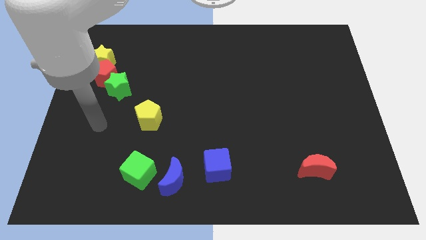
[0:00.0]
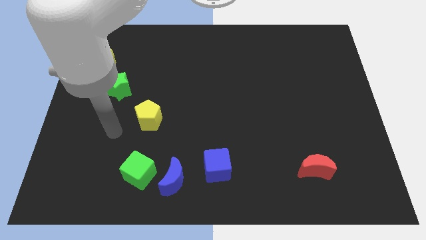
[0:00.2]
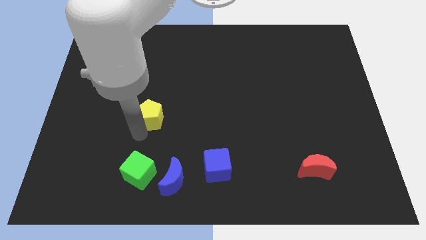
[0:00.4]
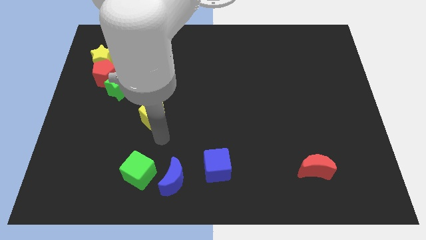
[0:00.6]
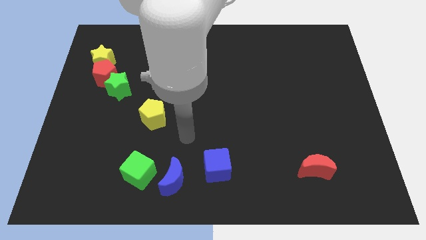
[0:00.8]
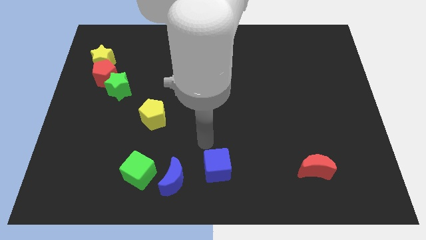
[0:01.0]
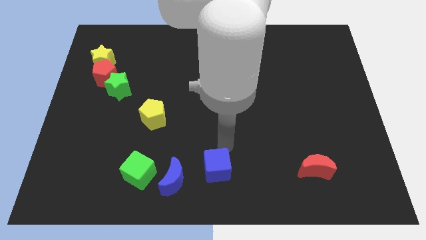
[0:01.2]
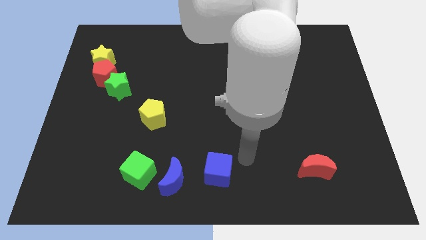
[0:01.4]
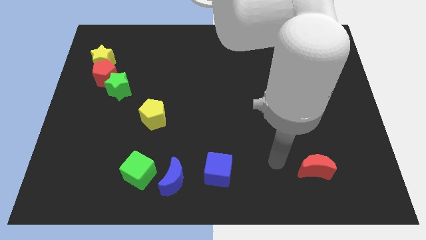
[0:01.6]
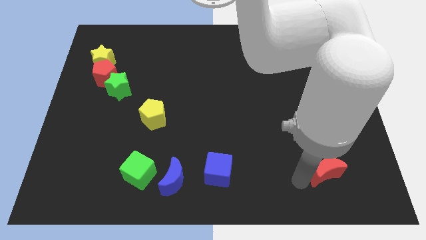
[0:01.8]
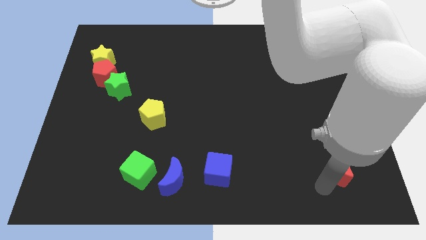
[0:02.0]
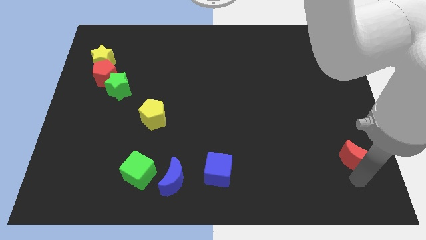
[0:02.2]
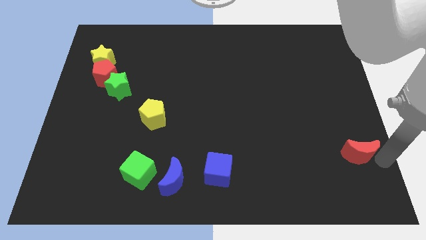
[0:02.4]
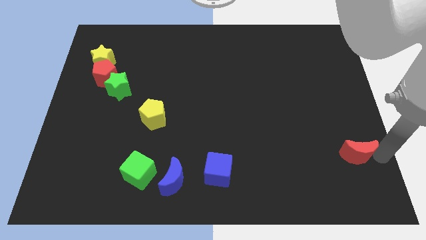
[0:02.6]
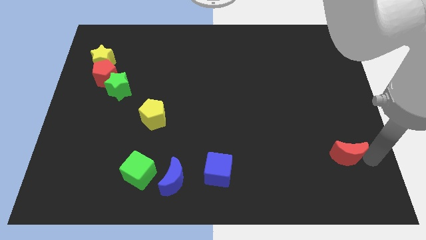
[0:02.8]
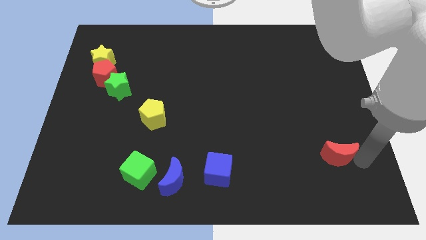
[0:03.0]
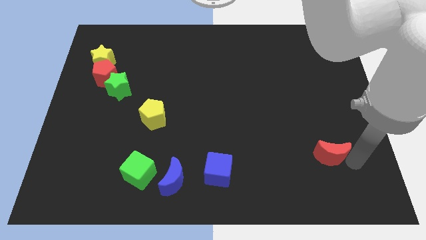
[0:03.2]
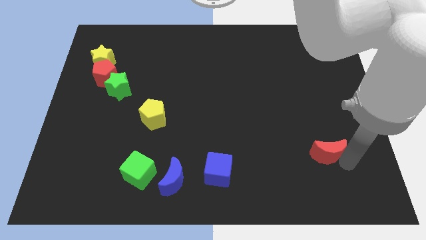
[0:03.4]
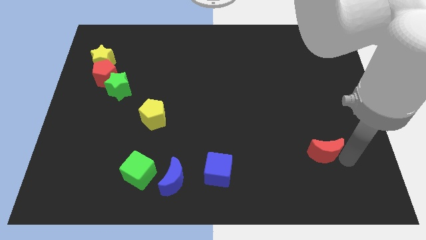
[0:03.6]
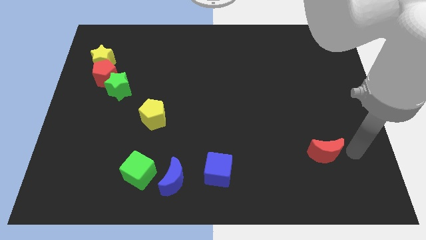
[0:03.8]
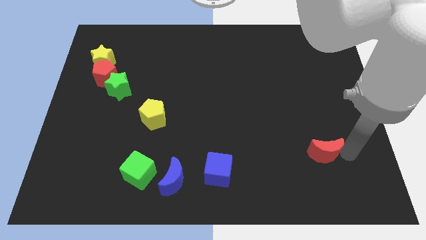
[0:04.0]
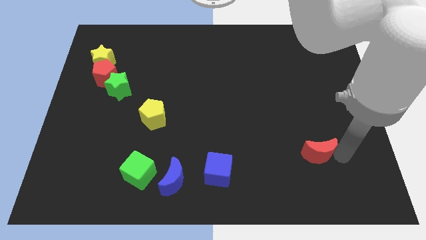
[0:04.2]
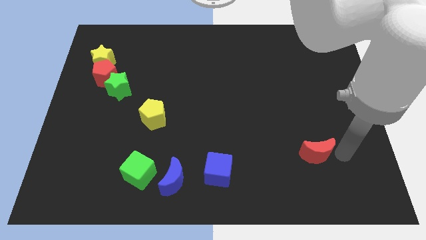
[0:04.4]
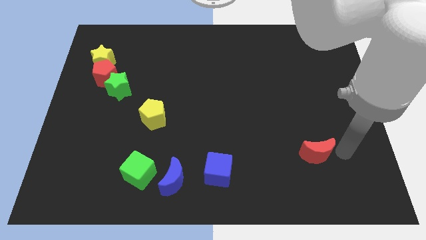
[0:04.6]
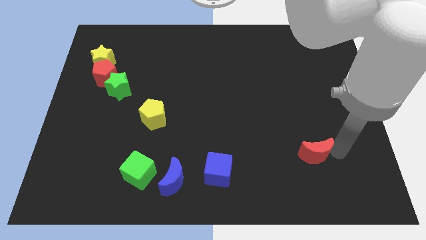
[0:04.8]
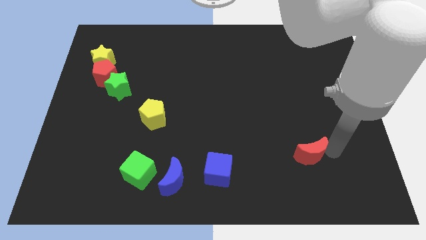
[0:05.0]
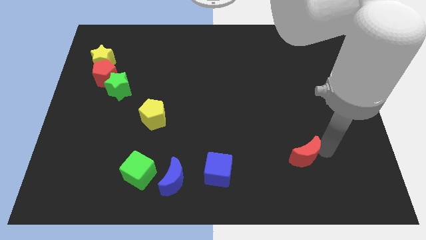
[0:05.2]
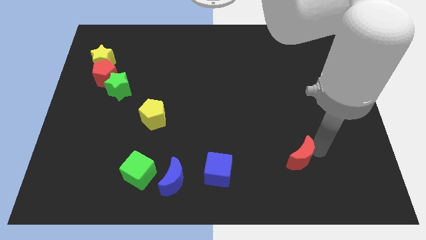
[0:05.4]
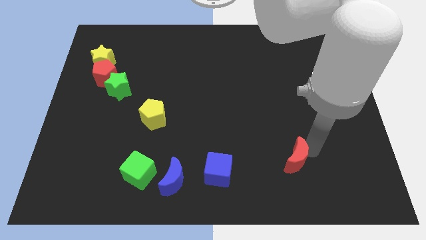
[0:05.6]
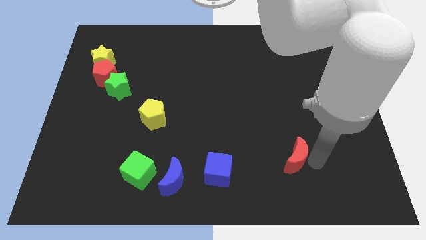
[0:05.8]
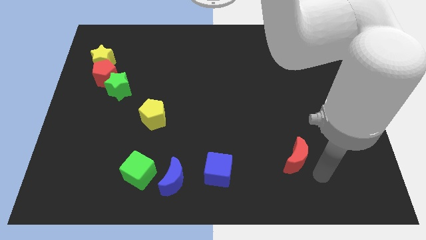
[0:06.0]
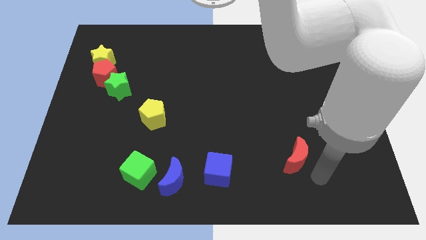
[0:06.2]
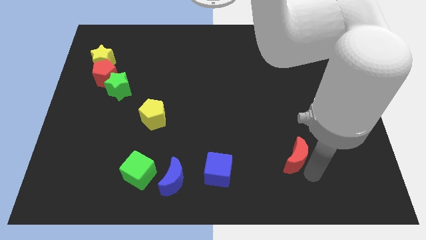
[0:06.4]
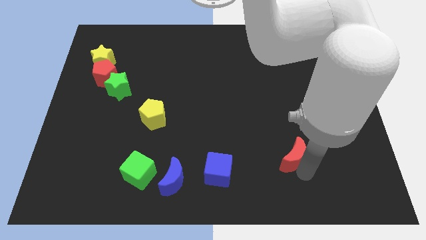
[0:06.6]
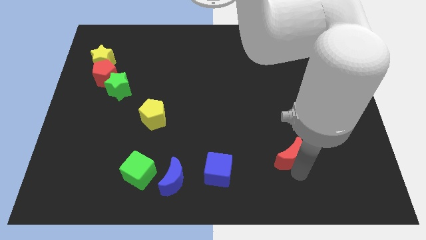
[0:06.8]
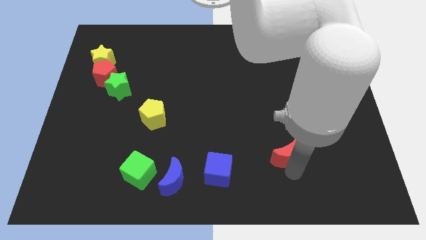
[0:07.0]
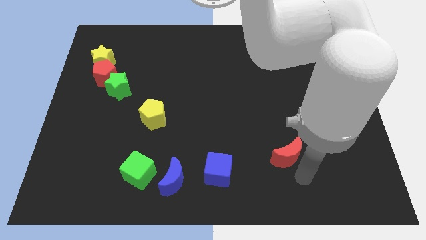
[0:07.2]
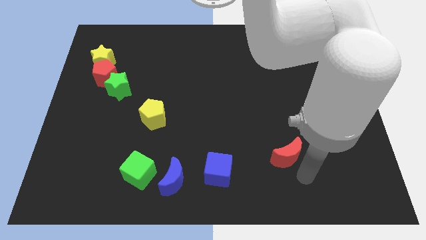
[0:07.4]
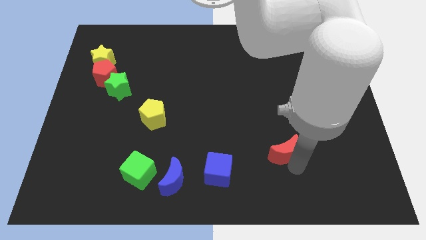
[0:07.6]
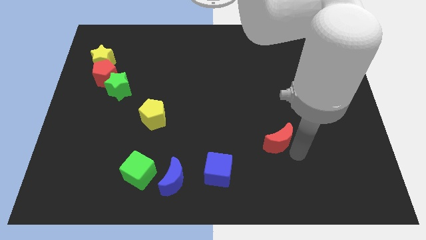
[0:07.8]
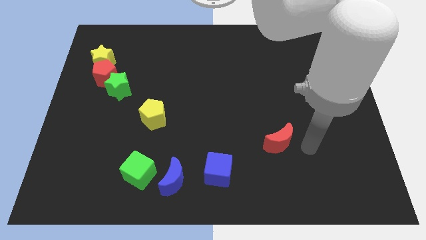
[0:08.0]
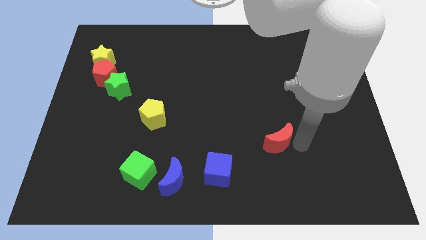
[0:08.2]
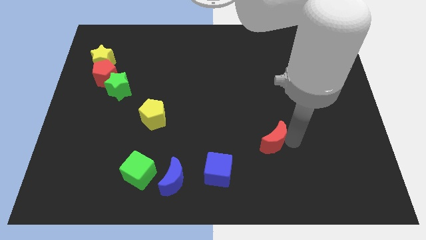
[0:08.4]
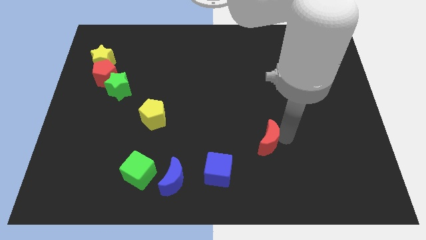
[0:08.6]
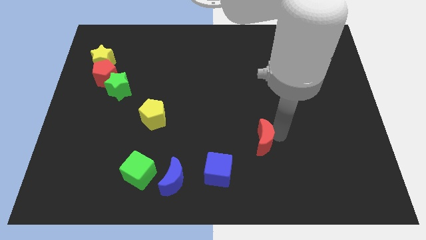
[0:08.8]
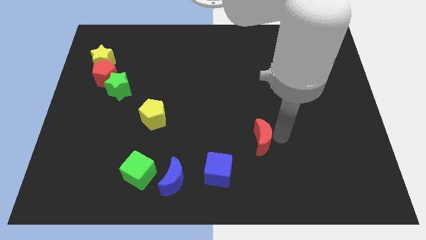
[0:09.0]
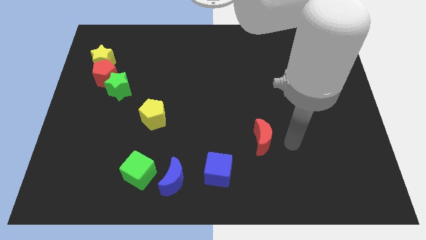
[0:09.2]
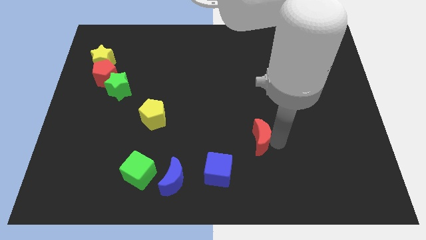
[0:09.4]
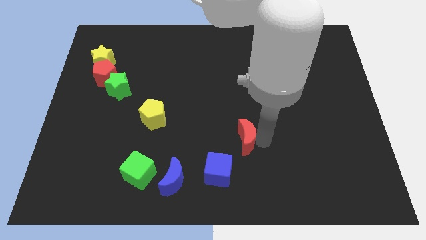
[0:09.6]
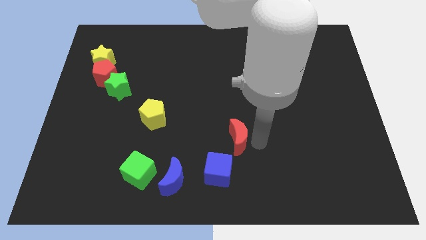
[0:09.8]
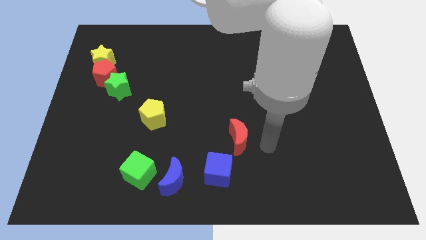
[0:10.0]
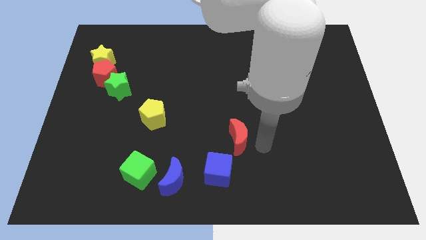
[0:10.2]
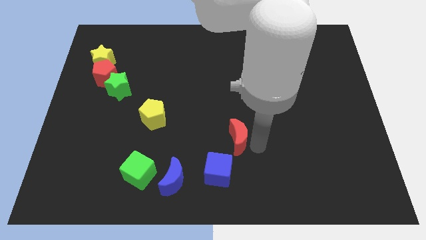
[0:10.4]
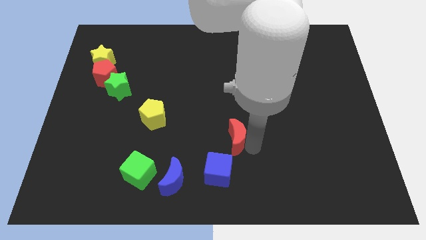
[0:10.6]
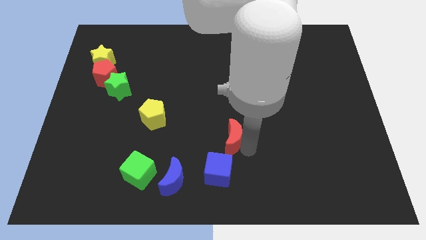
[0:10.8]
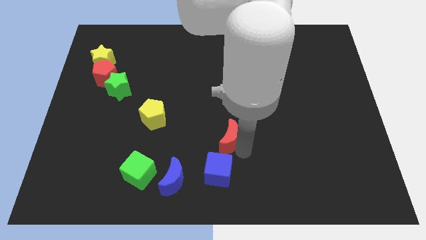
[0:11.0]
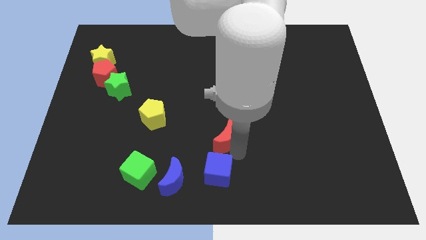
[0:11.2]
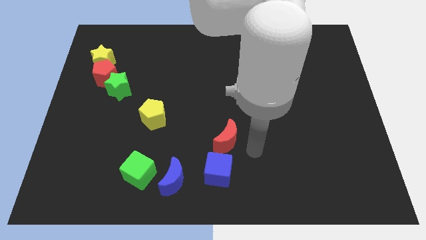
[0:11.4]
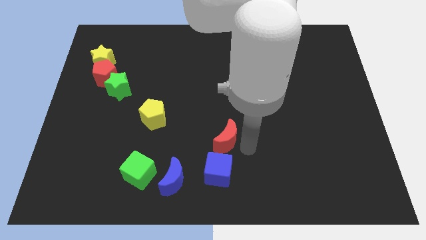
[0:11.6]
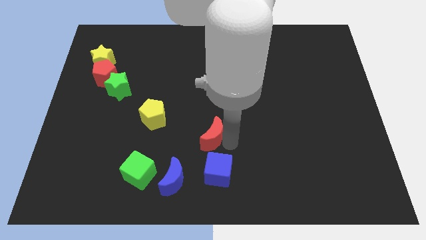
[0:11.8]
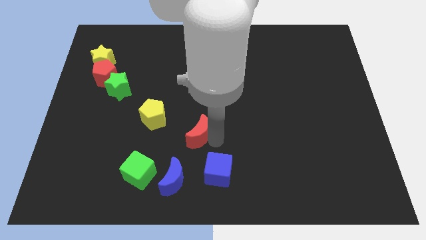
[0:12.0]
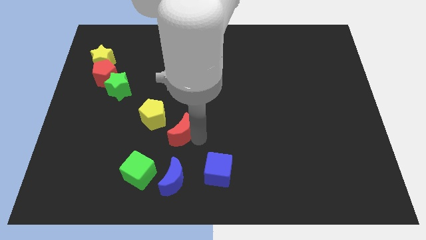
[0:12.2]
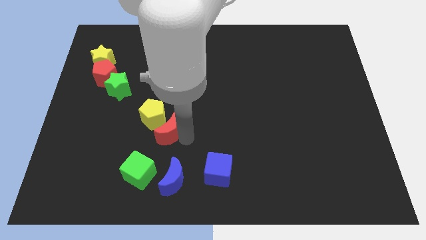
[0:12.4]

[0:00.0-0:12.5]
put the red moon towards the yellow pentagon
